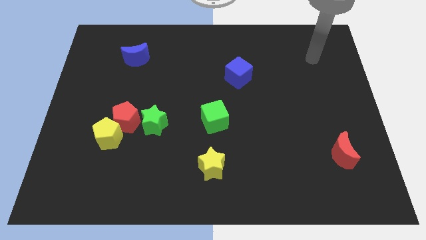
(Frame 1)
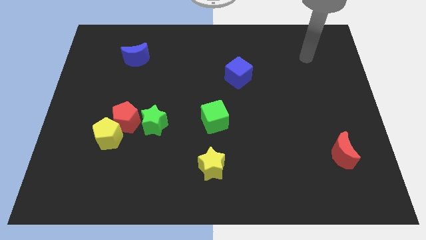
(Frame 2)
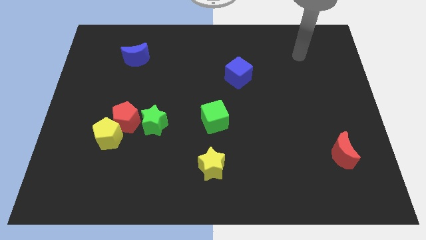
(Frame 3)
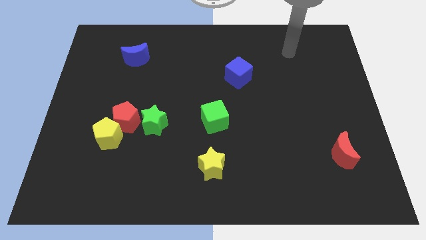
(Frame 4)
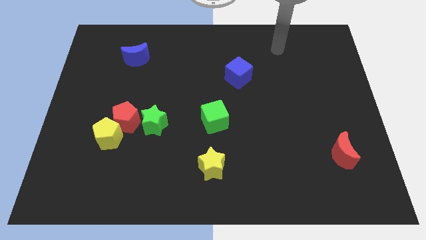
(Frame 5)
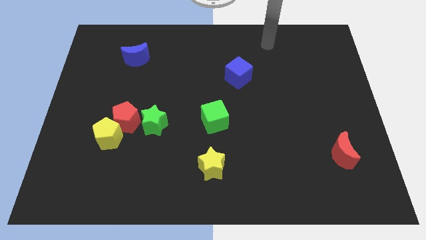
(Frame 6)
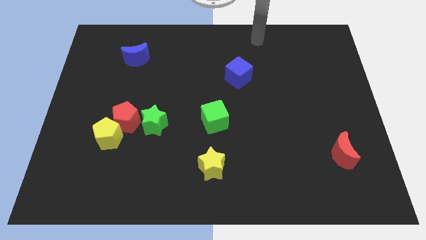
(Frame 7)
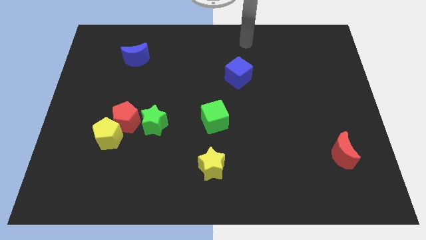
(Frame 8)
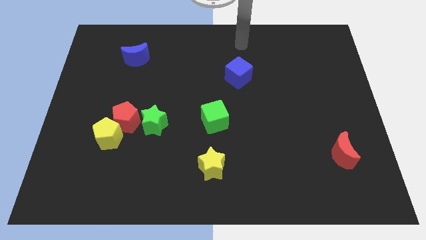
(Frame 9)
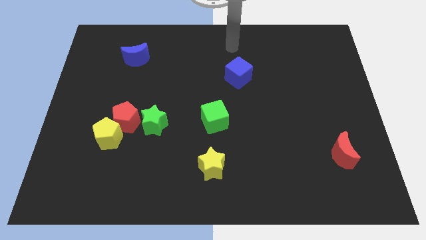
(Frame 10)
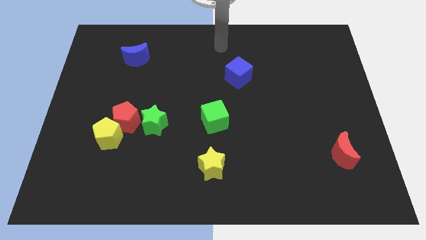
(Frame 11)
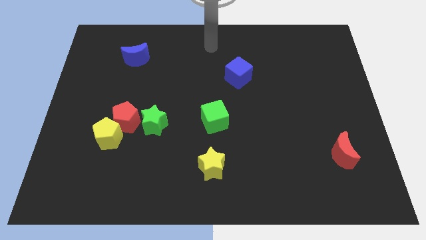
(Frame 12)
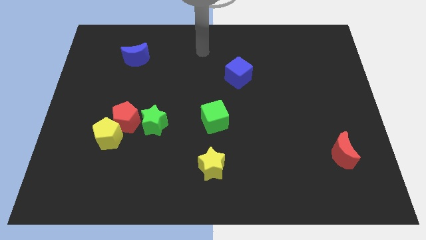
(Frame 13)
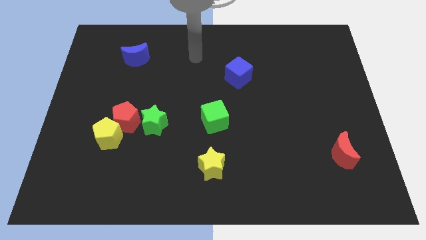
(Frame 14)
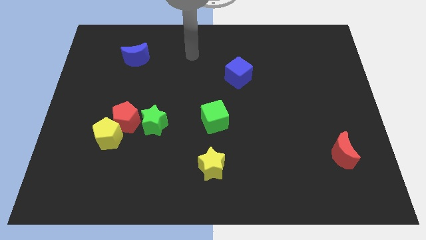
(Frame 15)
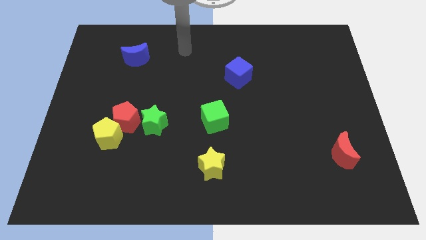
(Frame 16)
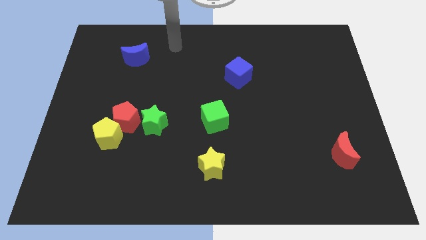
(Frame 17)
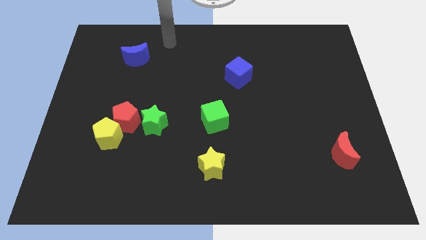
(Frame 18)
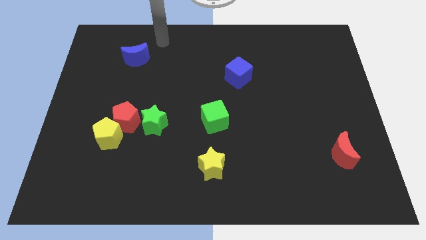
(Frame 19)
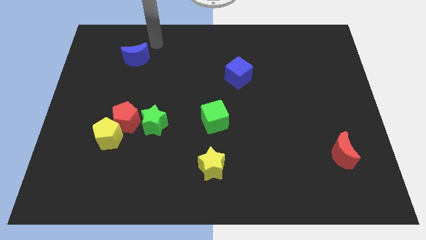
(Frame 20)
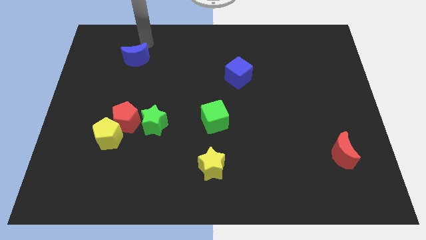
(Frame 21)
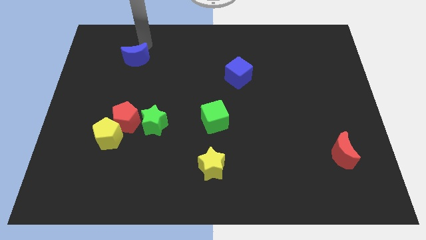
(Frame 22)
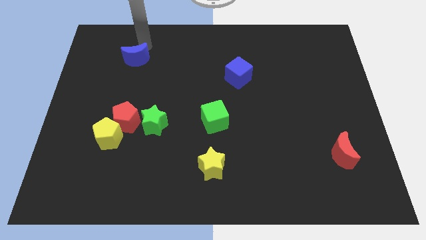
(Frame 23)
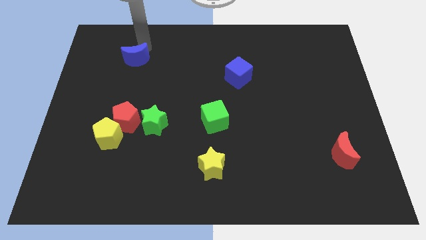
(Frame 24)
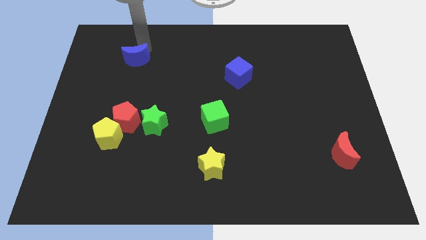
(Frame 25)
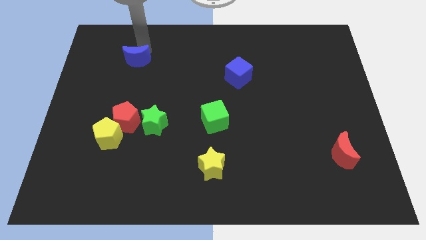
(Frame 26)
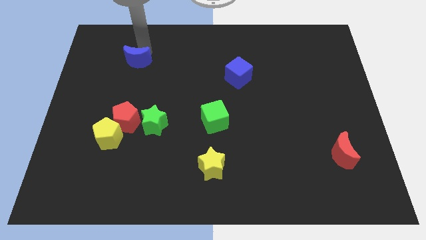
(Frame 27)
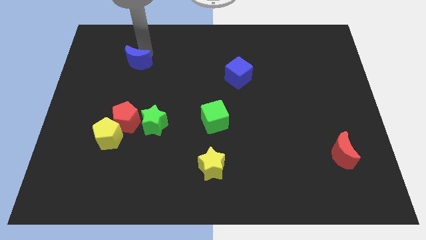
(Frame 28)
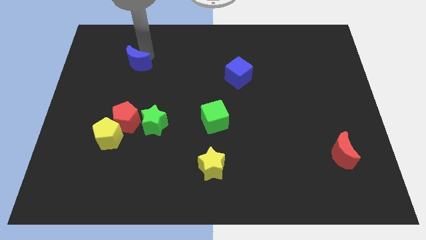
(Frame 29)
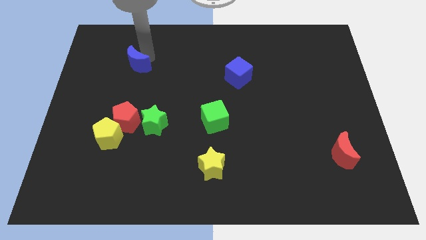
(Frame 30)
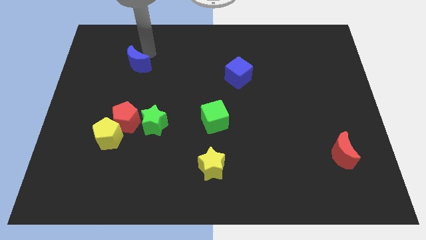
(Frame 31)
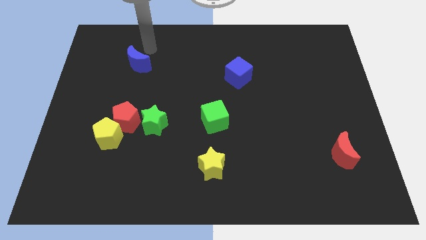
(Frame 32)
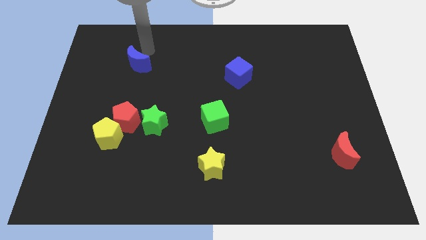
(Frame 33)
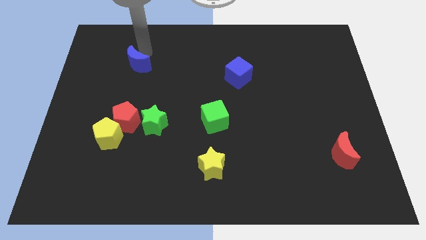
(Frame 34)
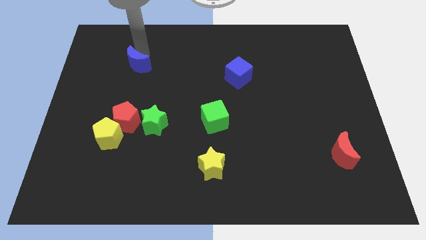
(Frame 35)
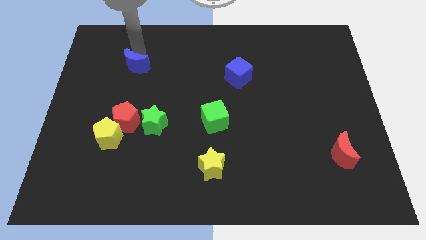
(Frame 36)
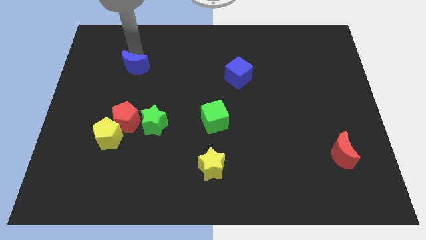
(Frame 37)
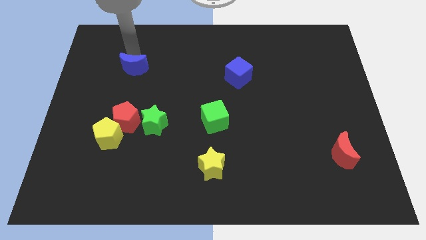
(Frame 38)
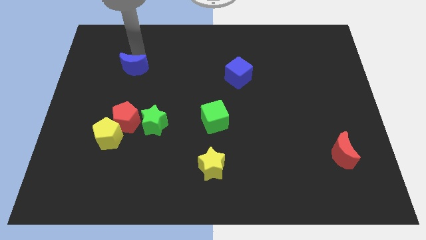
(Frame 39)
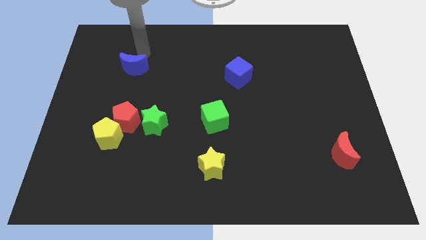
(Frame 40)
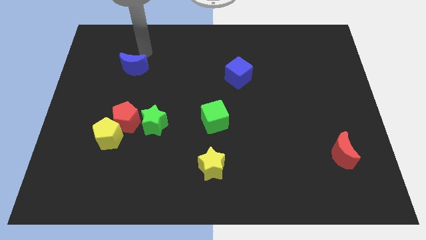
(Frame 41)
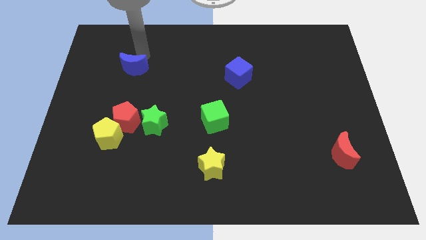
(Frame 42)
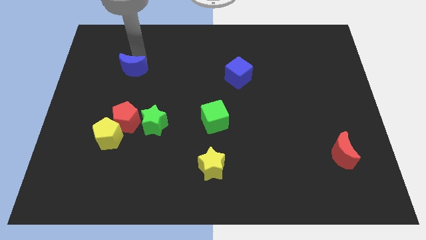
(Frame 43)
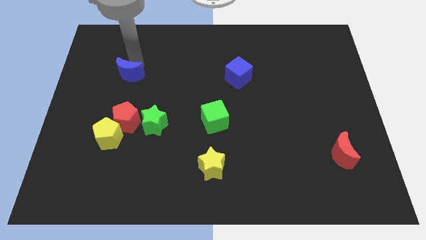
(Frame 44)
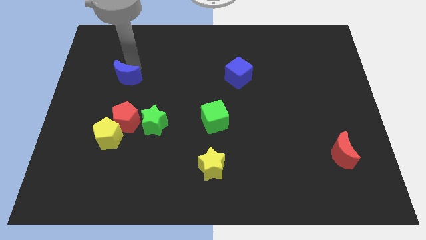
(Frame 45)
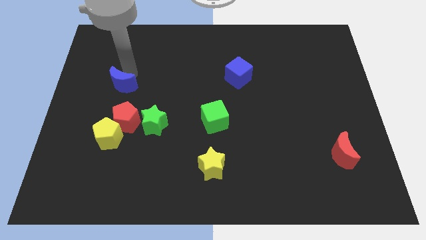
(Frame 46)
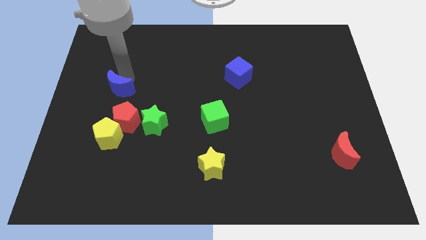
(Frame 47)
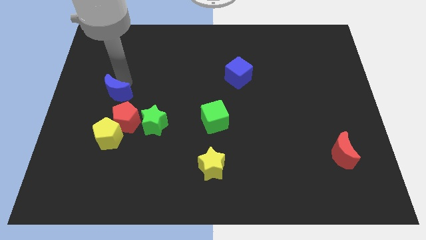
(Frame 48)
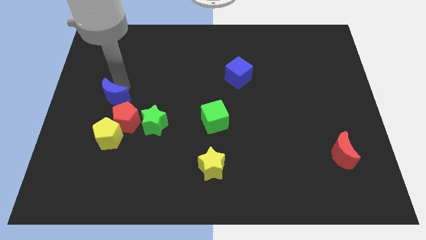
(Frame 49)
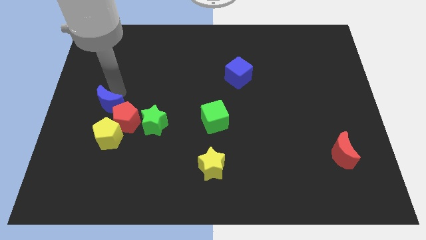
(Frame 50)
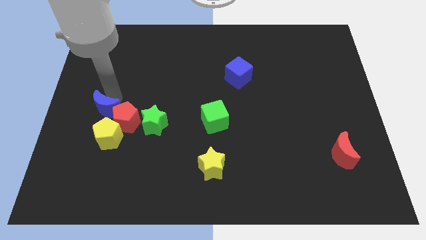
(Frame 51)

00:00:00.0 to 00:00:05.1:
slide the blue moon just left of the green star

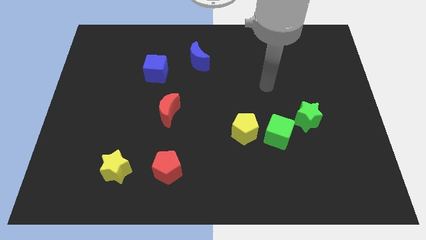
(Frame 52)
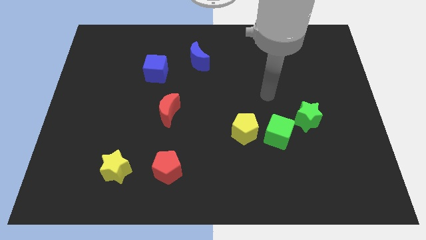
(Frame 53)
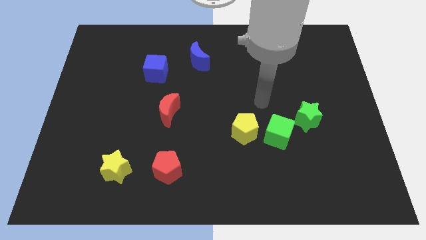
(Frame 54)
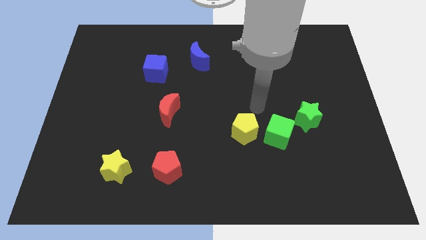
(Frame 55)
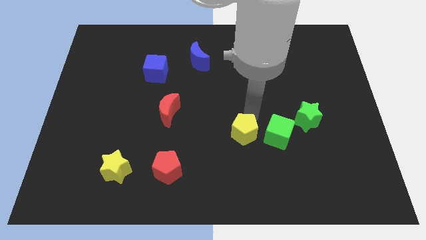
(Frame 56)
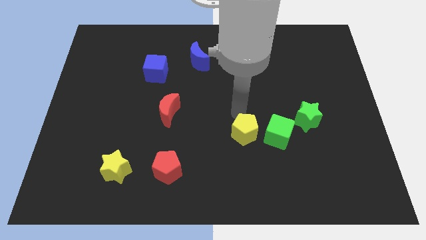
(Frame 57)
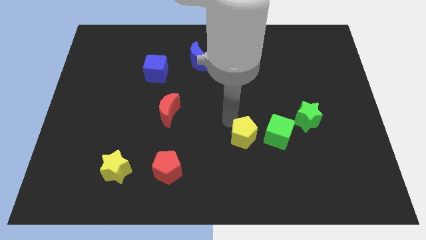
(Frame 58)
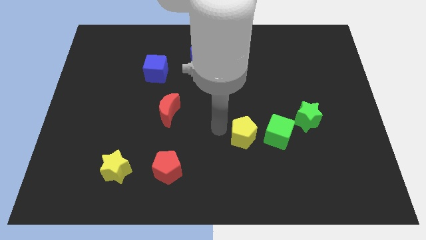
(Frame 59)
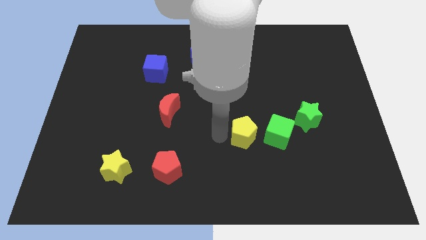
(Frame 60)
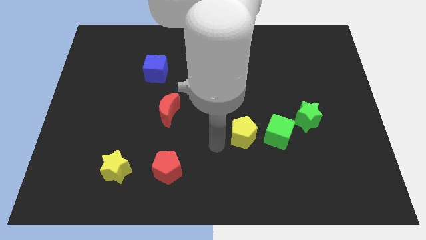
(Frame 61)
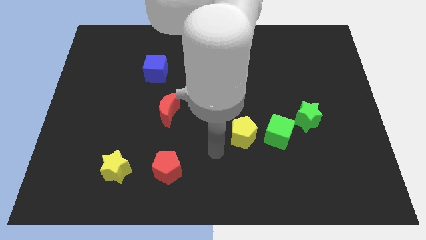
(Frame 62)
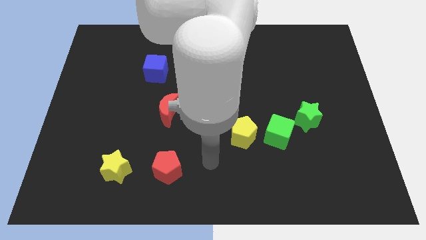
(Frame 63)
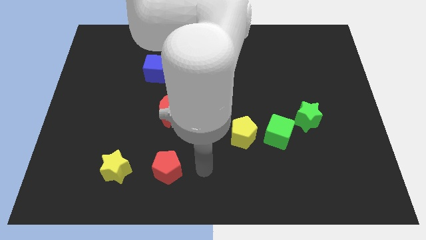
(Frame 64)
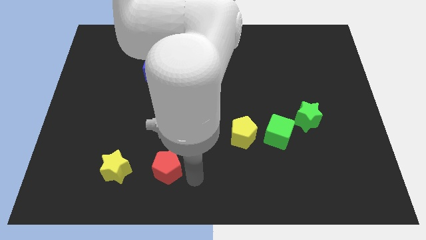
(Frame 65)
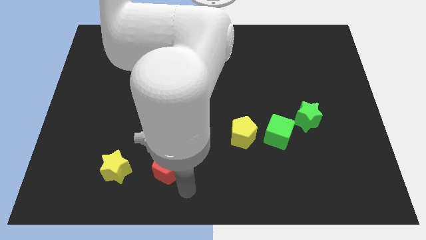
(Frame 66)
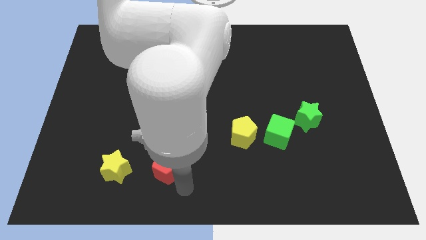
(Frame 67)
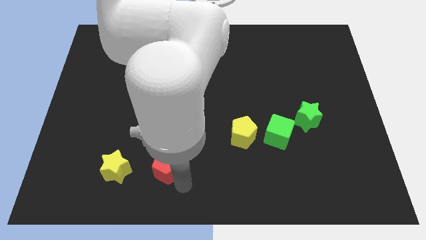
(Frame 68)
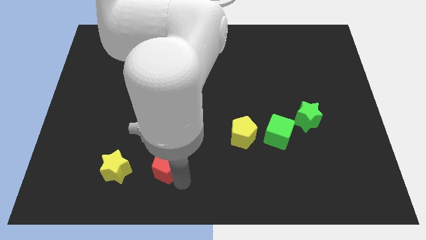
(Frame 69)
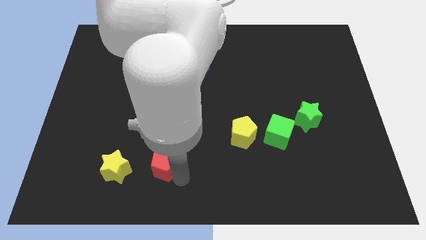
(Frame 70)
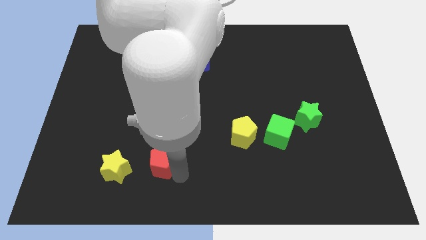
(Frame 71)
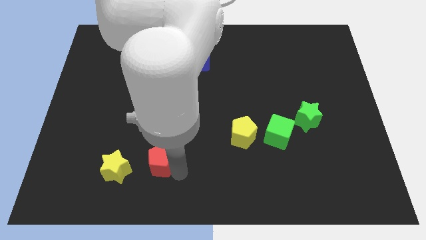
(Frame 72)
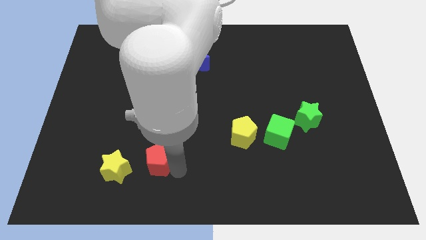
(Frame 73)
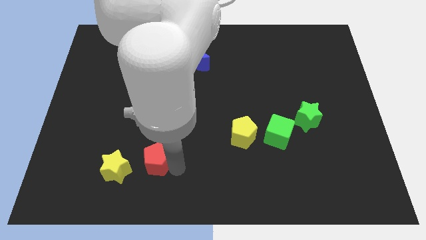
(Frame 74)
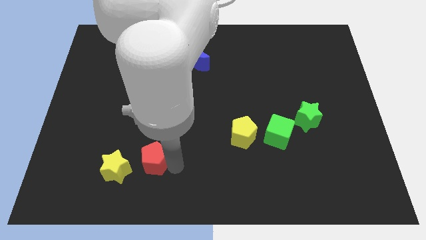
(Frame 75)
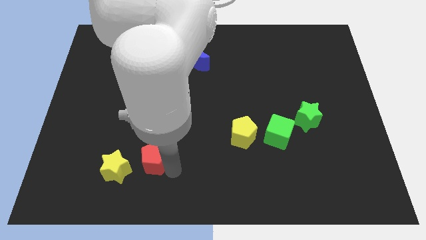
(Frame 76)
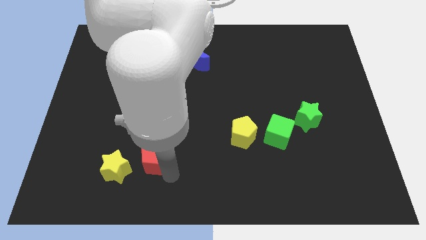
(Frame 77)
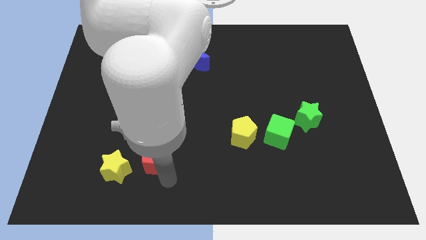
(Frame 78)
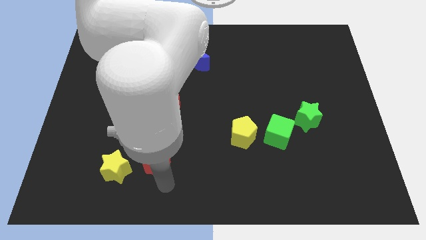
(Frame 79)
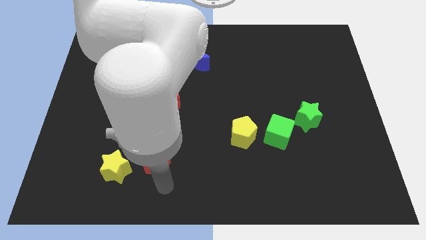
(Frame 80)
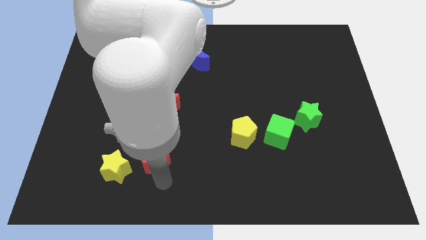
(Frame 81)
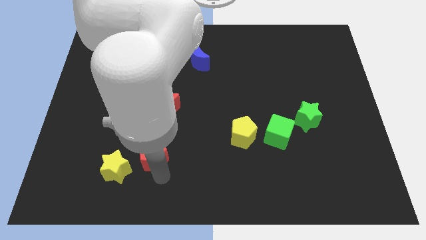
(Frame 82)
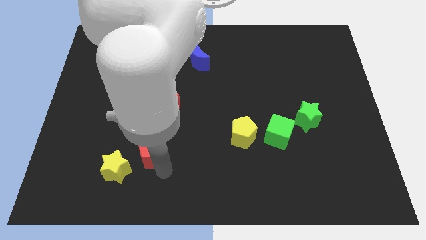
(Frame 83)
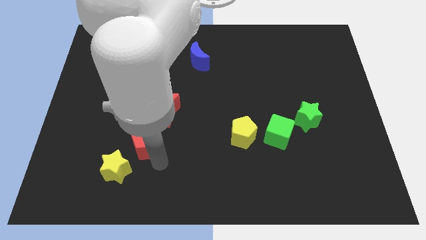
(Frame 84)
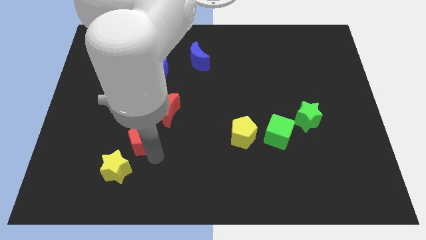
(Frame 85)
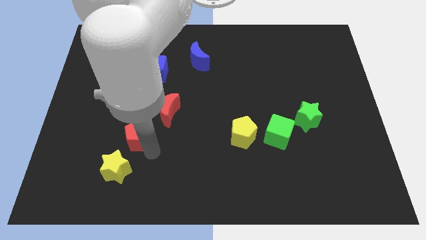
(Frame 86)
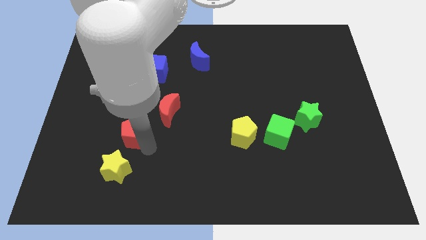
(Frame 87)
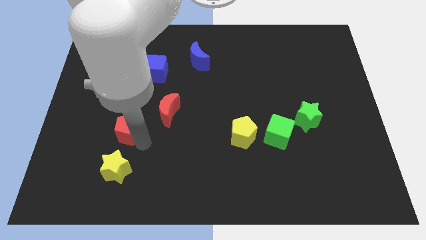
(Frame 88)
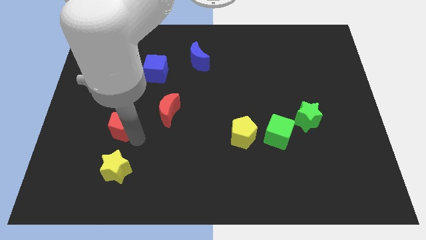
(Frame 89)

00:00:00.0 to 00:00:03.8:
slide the red pentagon to the left of the red moon
